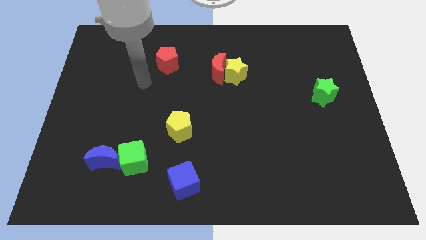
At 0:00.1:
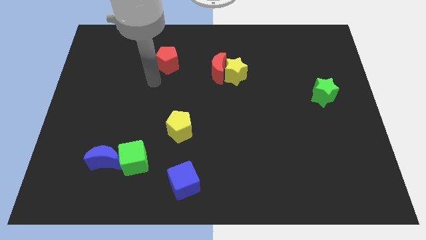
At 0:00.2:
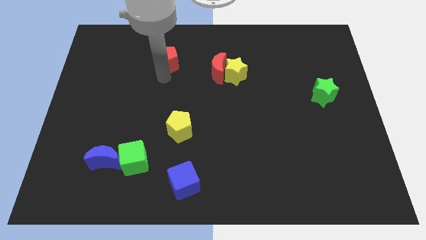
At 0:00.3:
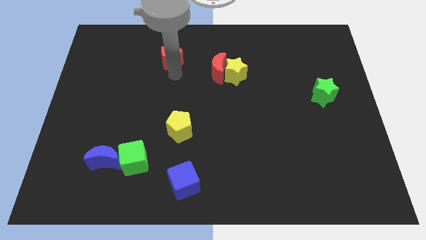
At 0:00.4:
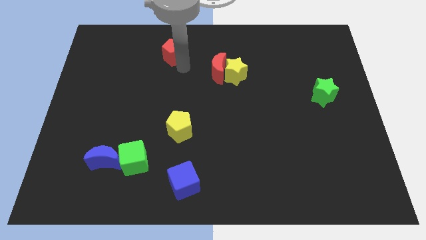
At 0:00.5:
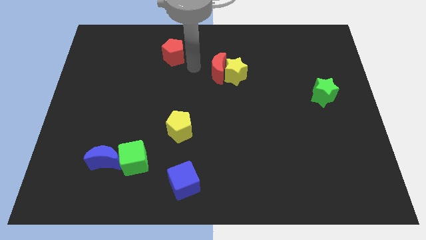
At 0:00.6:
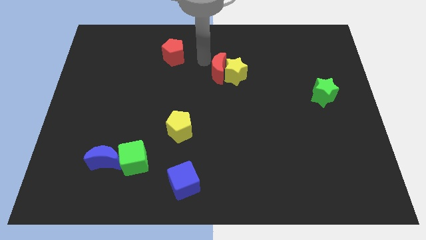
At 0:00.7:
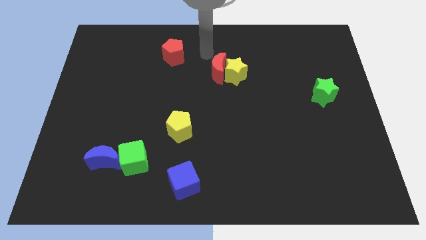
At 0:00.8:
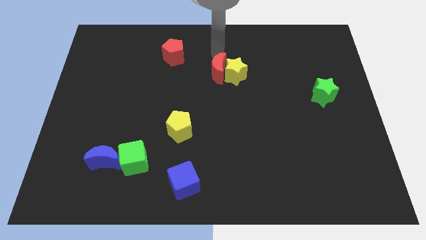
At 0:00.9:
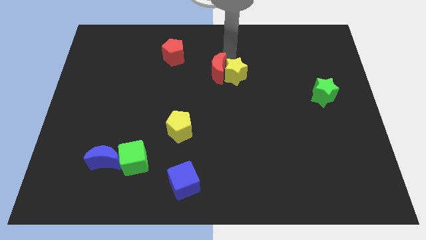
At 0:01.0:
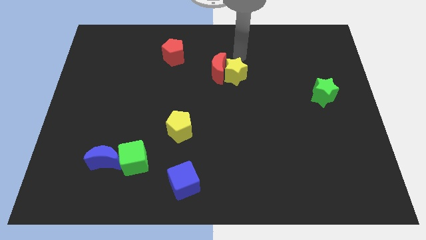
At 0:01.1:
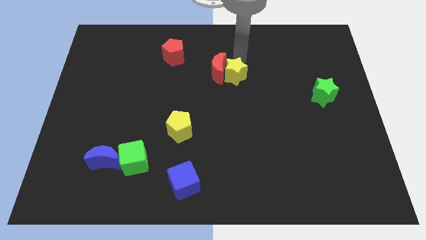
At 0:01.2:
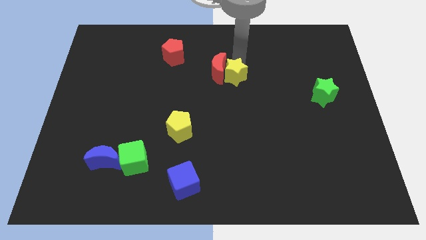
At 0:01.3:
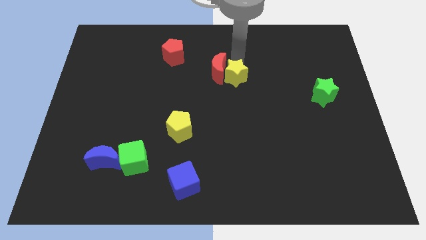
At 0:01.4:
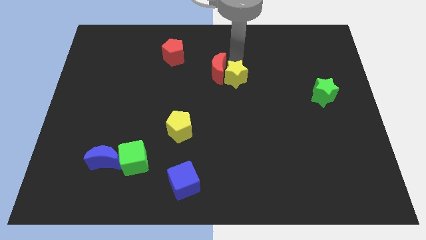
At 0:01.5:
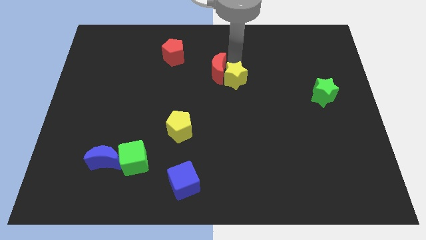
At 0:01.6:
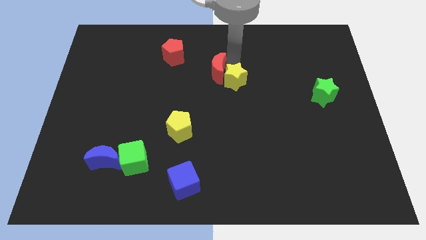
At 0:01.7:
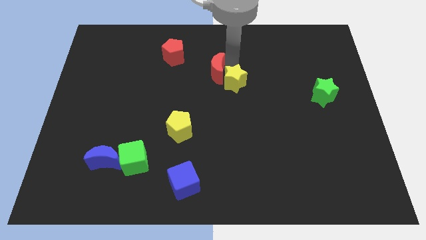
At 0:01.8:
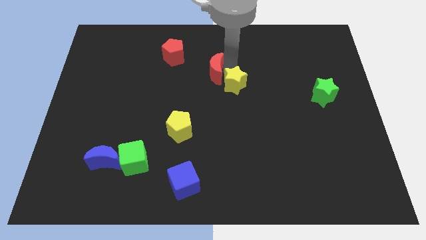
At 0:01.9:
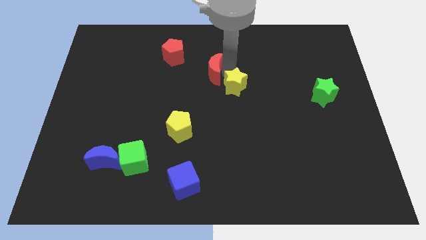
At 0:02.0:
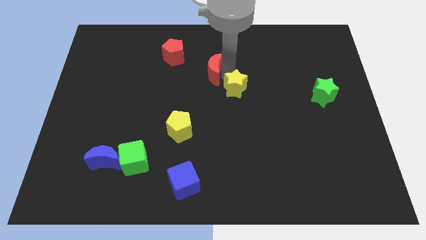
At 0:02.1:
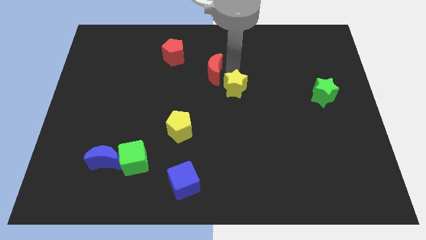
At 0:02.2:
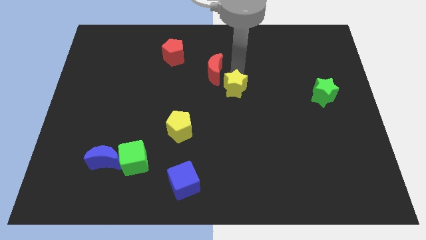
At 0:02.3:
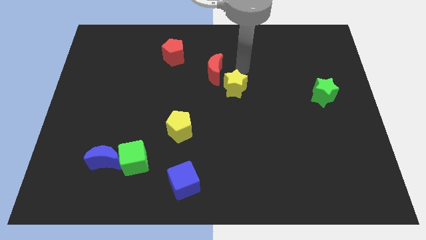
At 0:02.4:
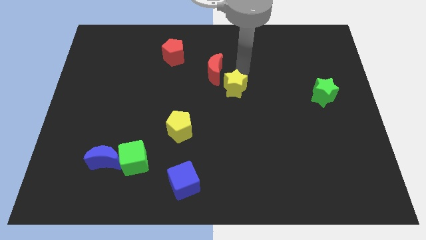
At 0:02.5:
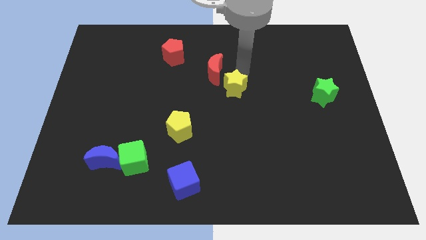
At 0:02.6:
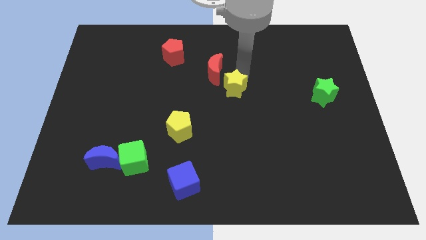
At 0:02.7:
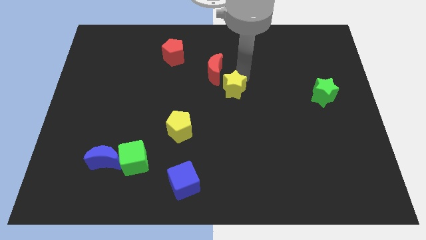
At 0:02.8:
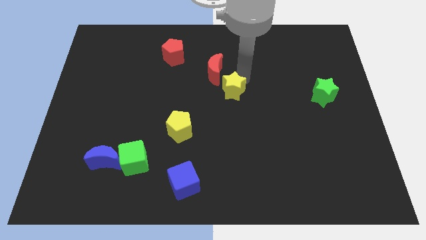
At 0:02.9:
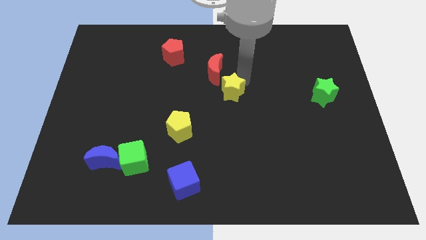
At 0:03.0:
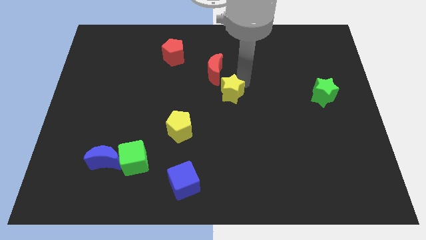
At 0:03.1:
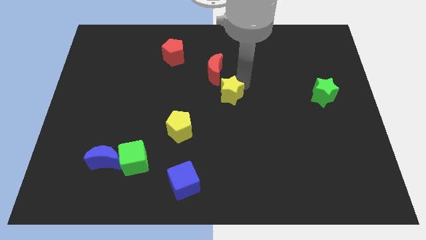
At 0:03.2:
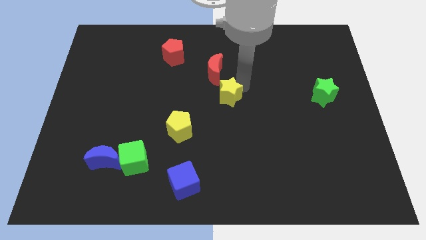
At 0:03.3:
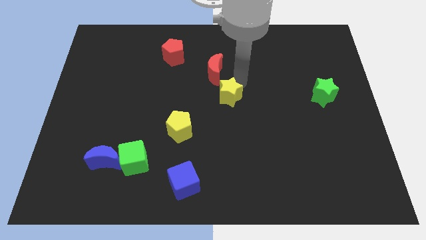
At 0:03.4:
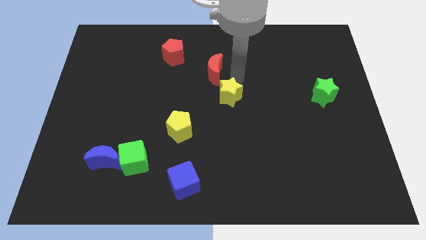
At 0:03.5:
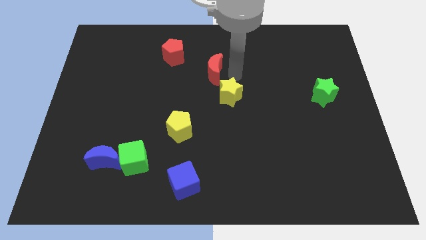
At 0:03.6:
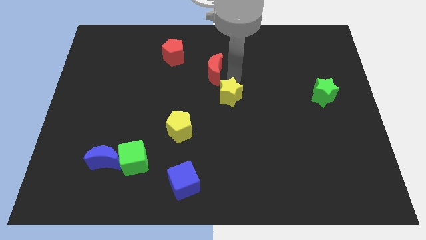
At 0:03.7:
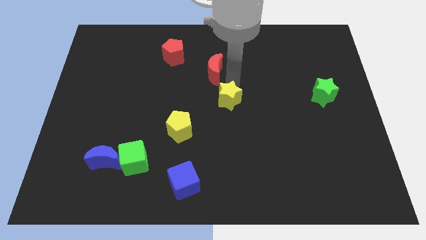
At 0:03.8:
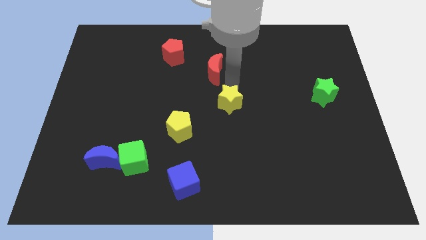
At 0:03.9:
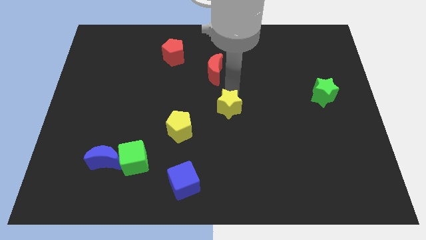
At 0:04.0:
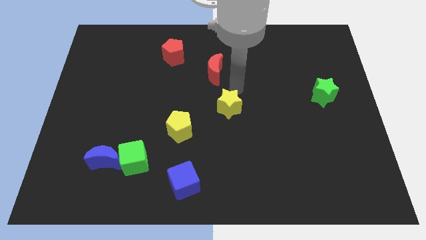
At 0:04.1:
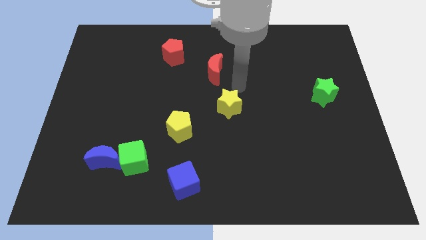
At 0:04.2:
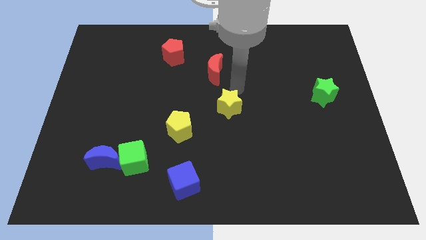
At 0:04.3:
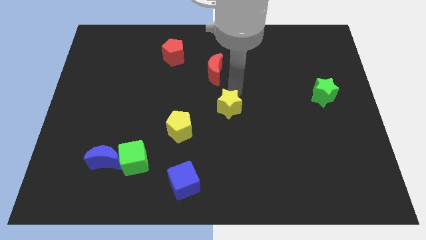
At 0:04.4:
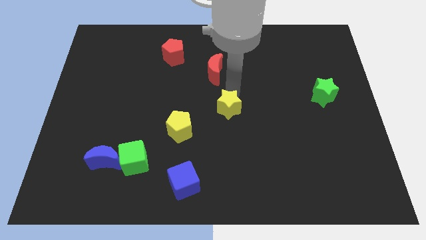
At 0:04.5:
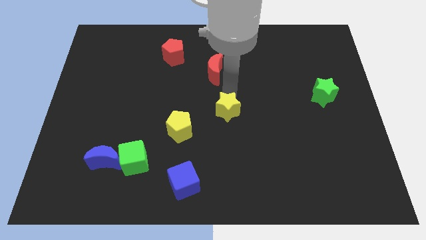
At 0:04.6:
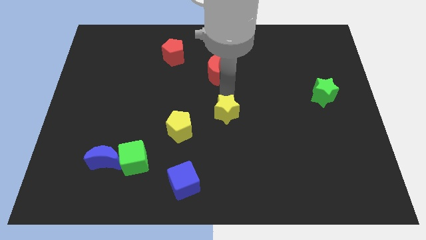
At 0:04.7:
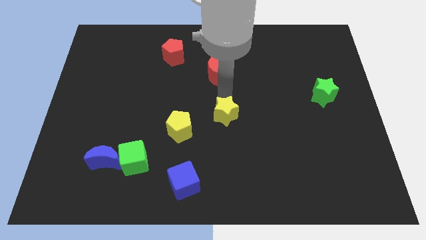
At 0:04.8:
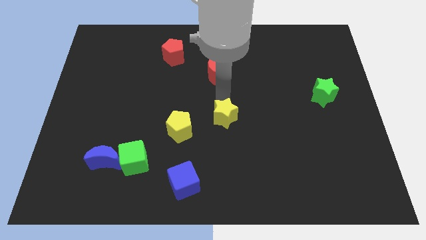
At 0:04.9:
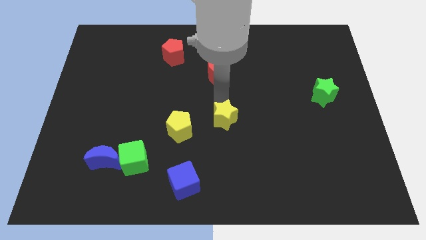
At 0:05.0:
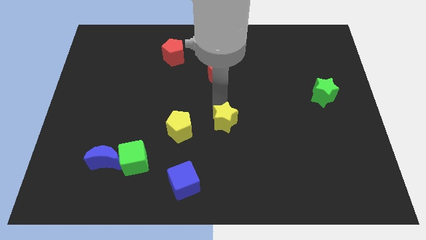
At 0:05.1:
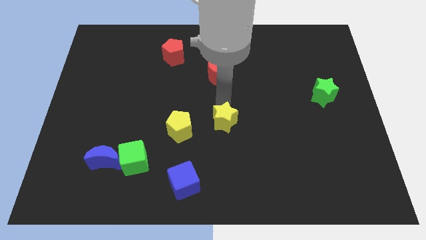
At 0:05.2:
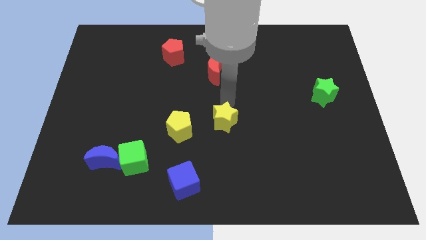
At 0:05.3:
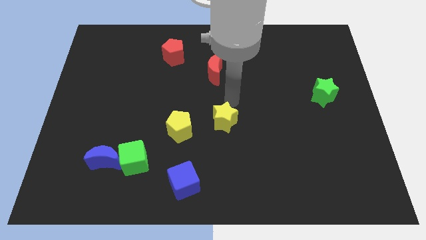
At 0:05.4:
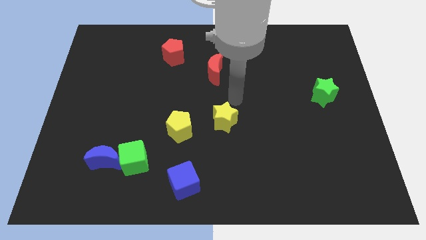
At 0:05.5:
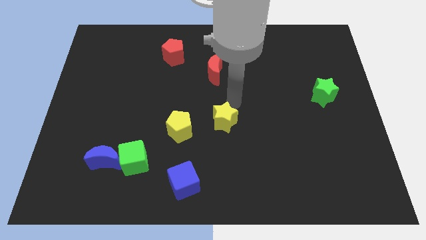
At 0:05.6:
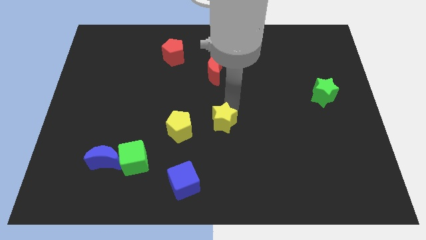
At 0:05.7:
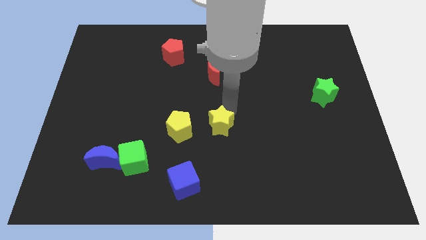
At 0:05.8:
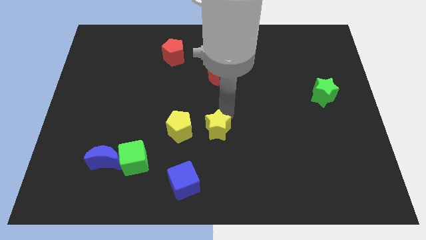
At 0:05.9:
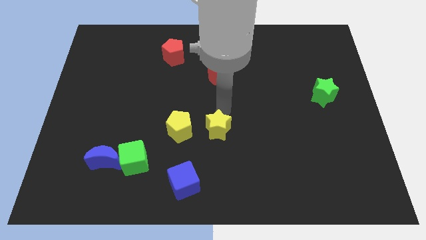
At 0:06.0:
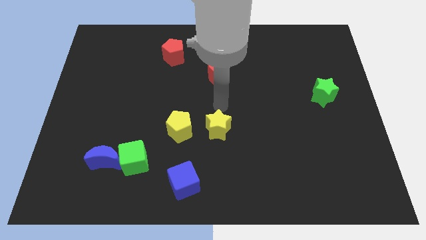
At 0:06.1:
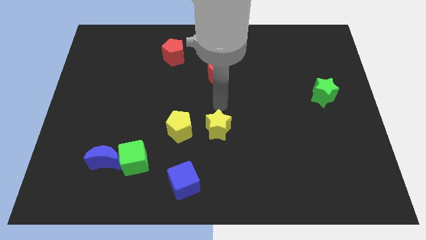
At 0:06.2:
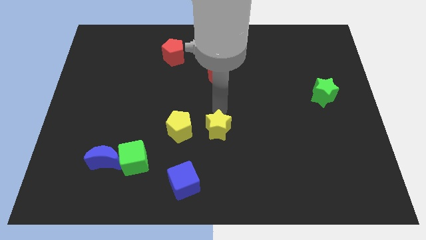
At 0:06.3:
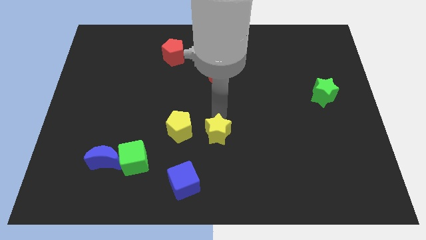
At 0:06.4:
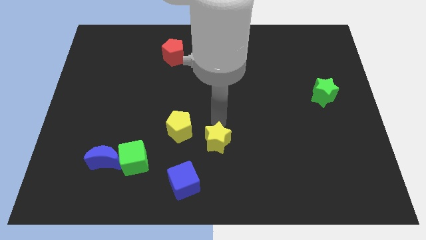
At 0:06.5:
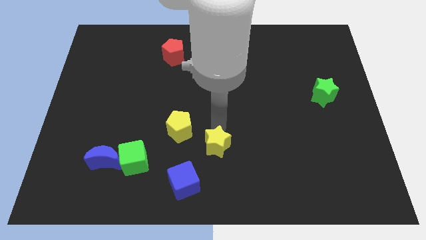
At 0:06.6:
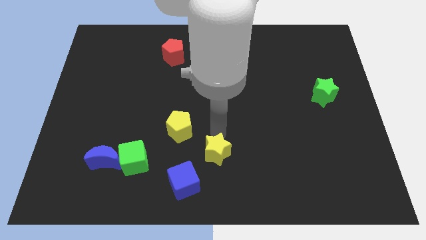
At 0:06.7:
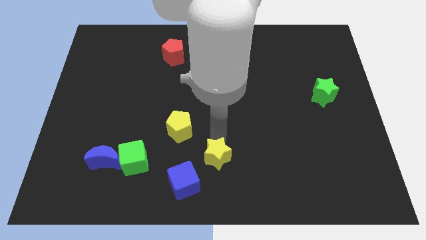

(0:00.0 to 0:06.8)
move the yellow star to the bottom side
